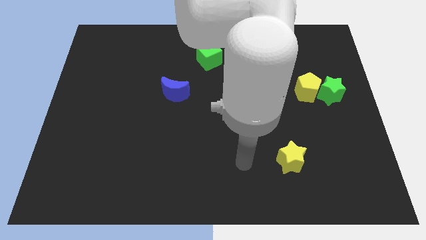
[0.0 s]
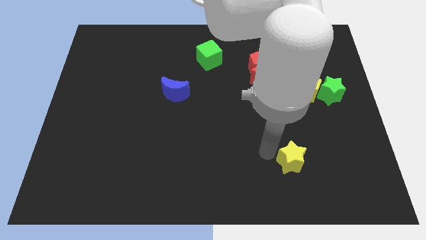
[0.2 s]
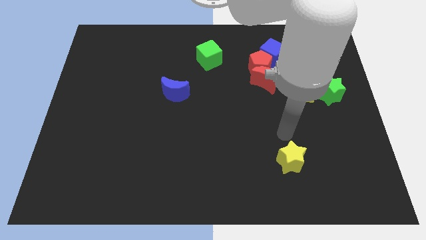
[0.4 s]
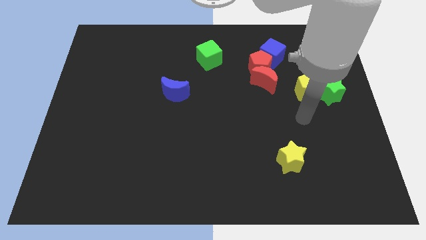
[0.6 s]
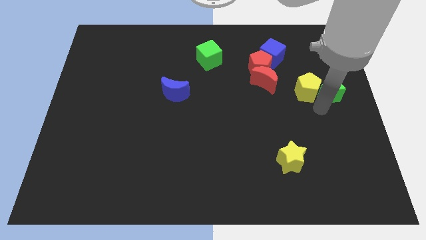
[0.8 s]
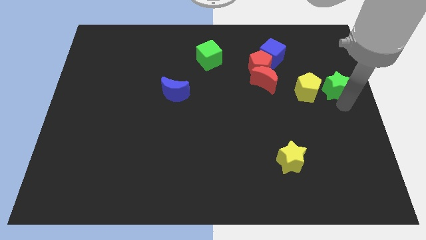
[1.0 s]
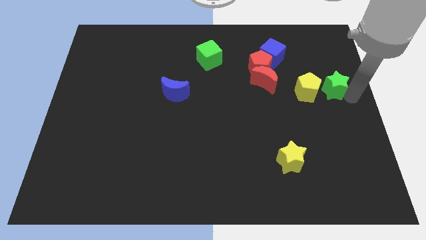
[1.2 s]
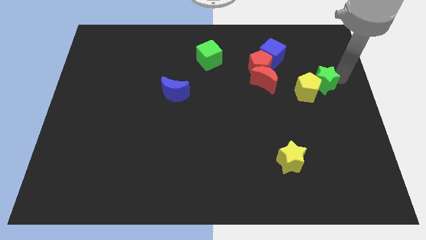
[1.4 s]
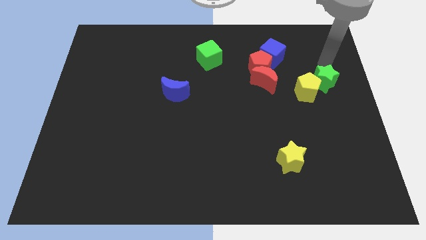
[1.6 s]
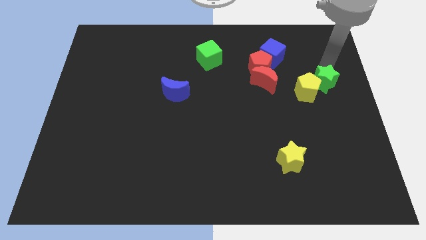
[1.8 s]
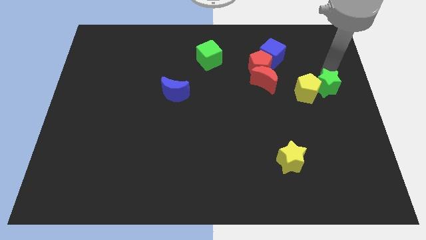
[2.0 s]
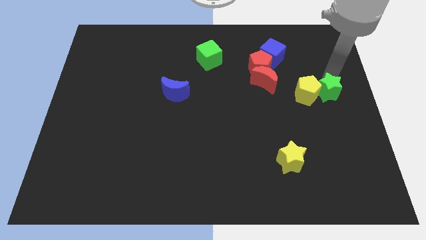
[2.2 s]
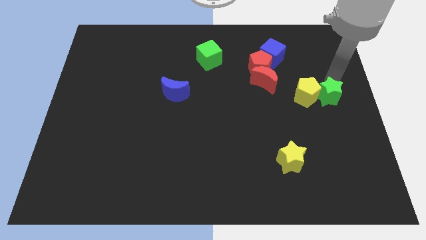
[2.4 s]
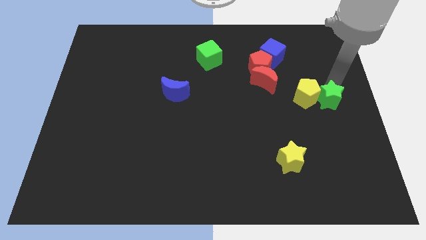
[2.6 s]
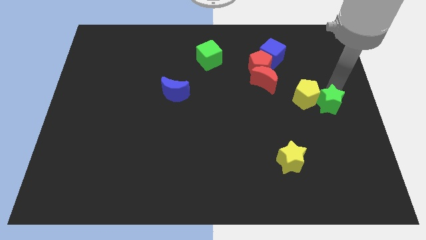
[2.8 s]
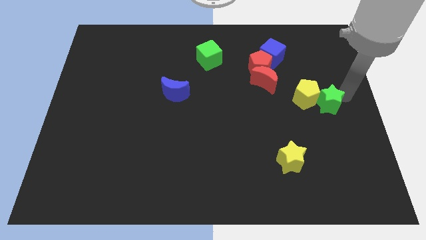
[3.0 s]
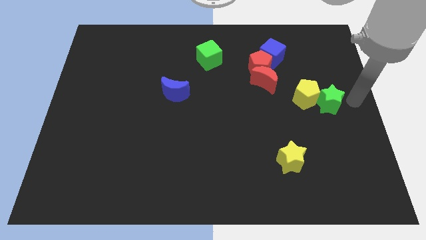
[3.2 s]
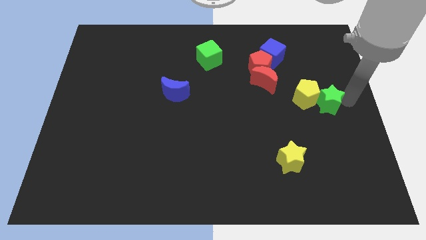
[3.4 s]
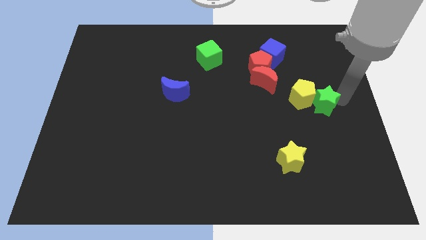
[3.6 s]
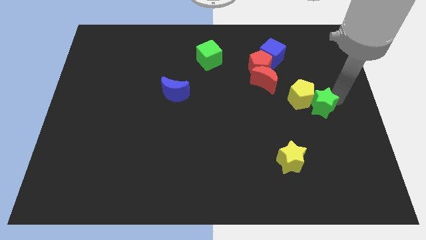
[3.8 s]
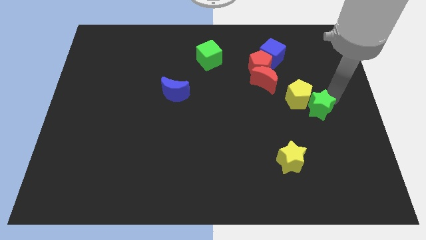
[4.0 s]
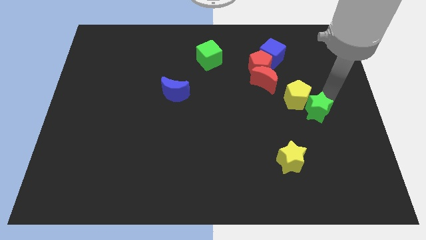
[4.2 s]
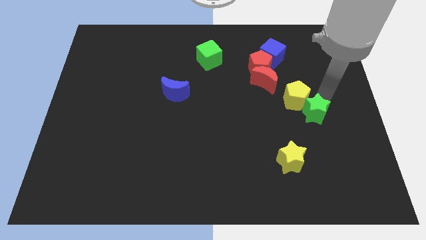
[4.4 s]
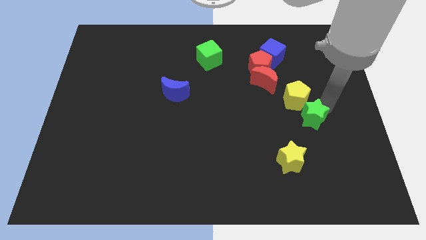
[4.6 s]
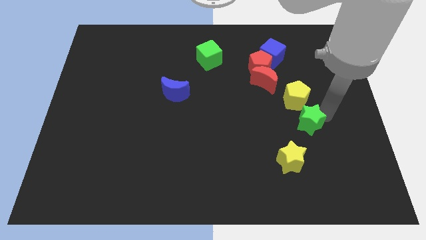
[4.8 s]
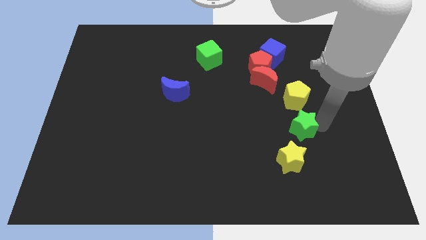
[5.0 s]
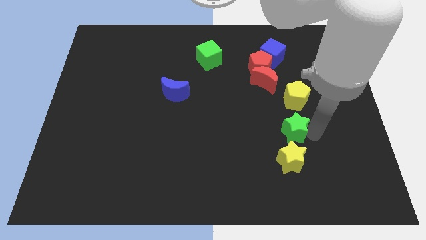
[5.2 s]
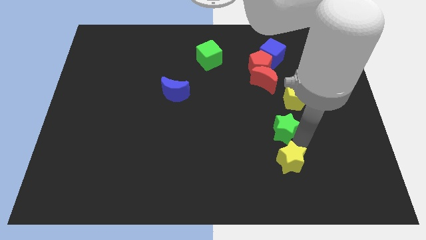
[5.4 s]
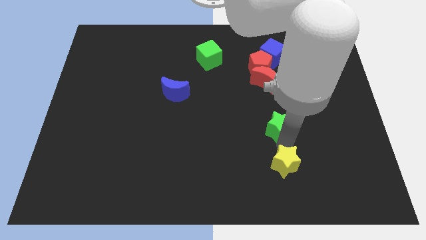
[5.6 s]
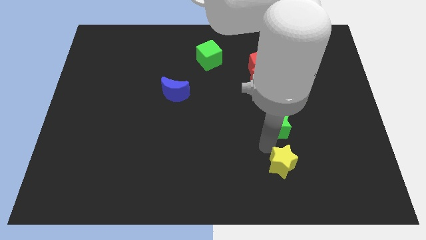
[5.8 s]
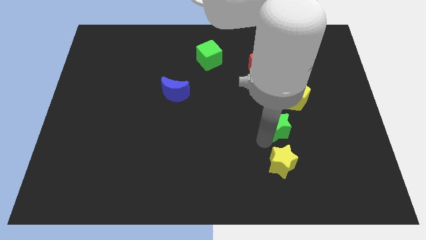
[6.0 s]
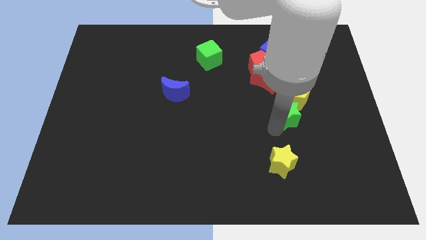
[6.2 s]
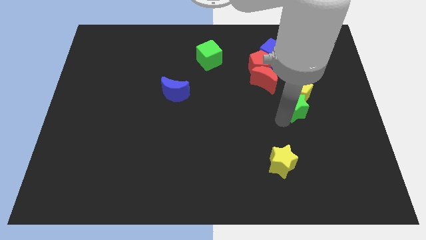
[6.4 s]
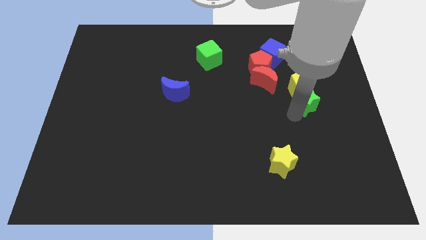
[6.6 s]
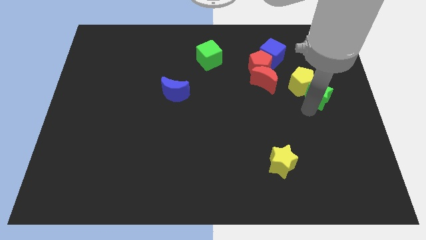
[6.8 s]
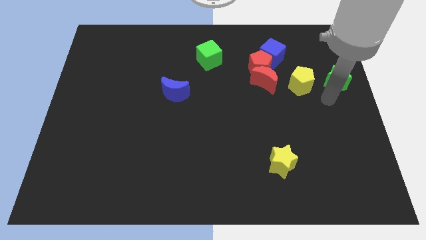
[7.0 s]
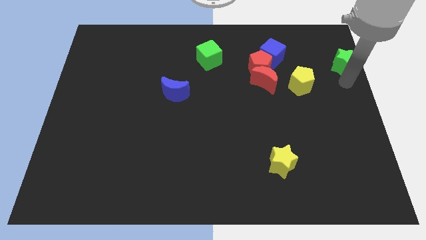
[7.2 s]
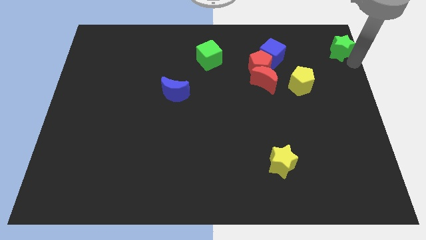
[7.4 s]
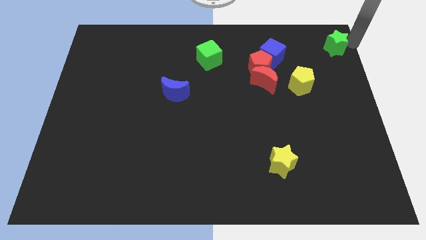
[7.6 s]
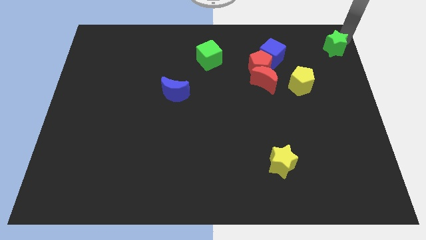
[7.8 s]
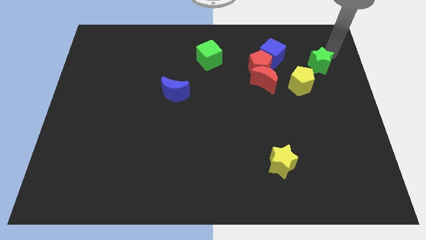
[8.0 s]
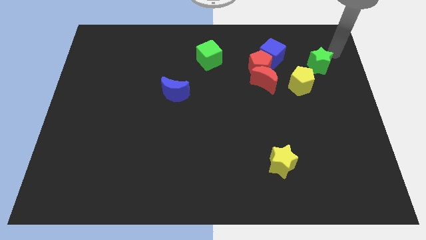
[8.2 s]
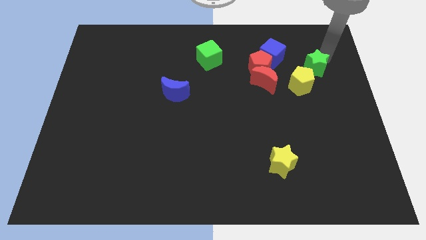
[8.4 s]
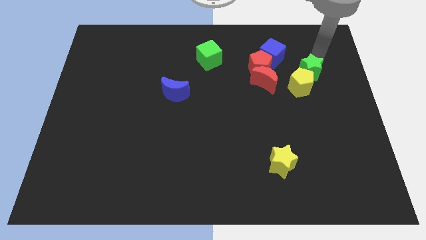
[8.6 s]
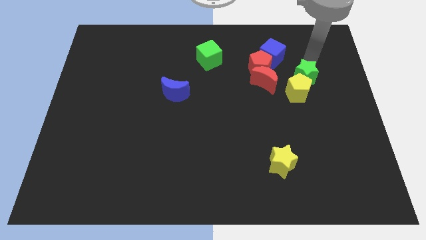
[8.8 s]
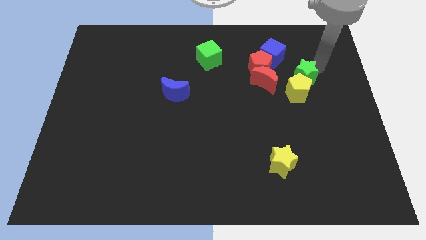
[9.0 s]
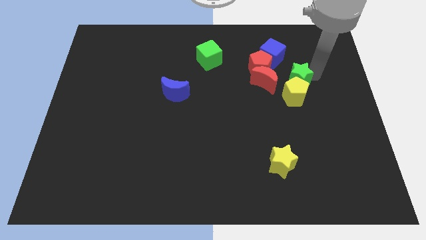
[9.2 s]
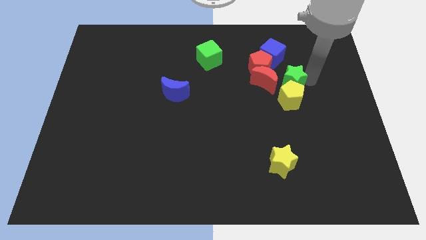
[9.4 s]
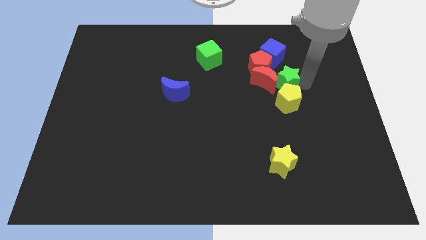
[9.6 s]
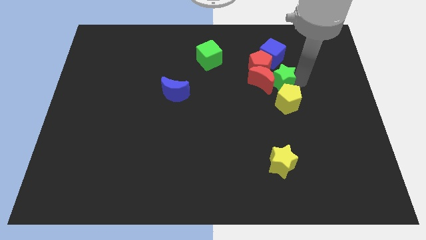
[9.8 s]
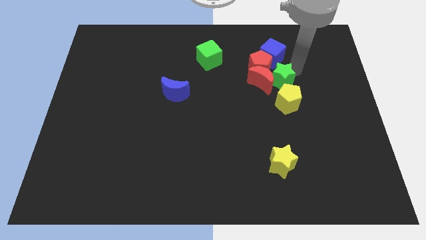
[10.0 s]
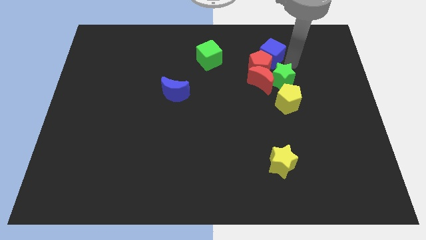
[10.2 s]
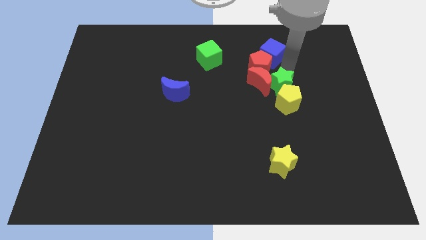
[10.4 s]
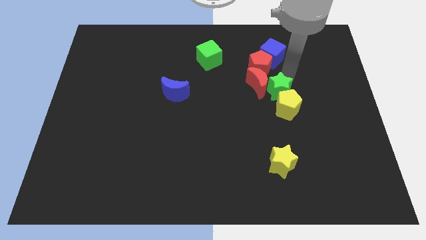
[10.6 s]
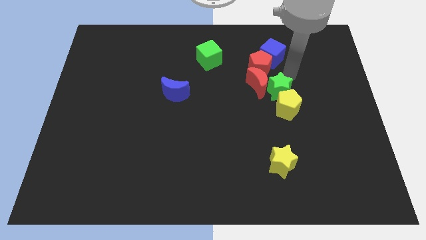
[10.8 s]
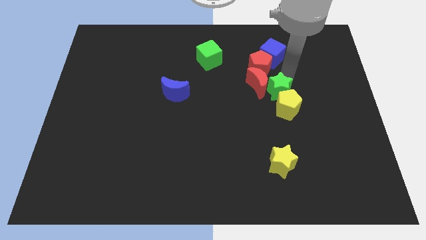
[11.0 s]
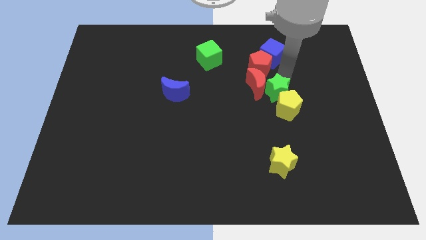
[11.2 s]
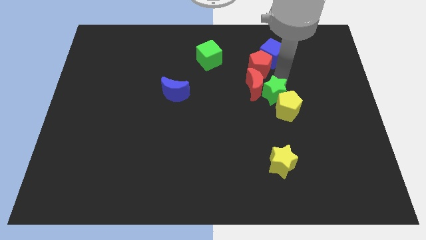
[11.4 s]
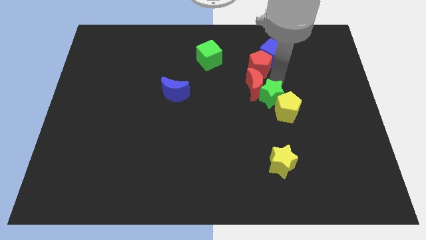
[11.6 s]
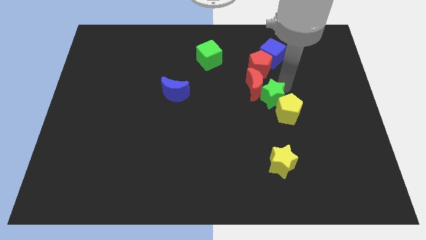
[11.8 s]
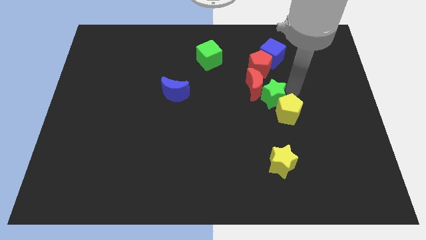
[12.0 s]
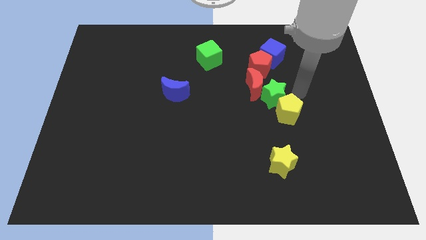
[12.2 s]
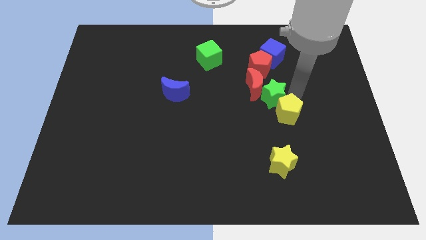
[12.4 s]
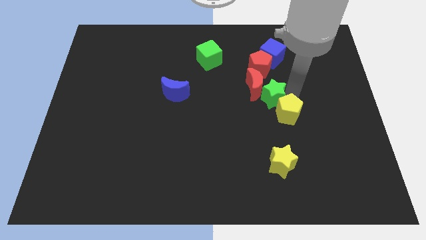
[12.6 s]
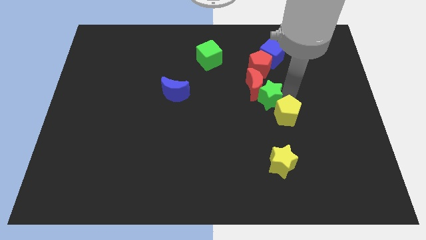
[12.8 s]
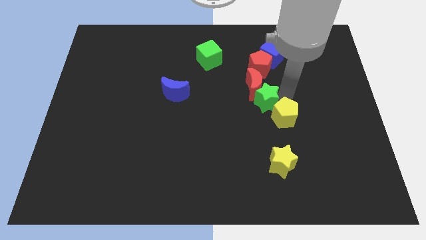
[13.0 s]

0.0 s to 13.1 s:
move the green star to the middle

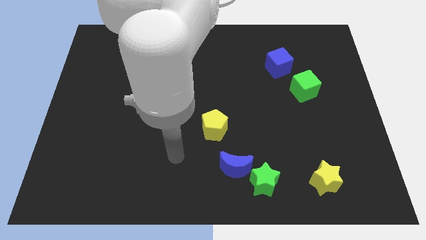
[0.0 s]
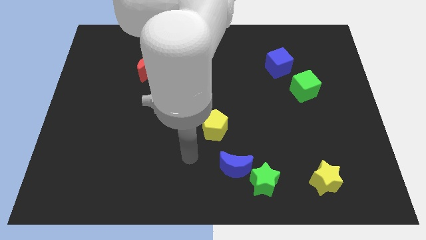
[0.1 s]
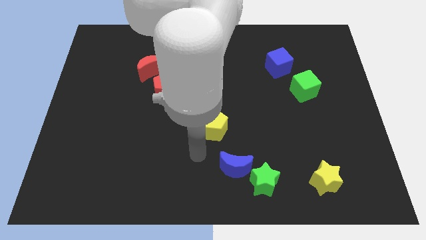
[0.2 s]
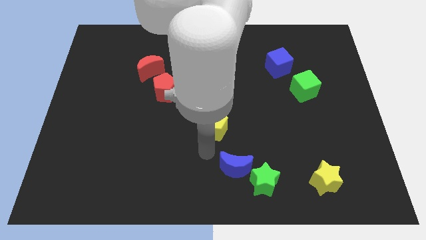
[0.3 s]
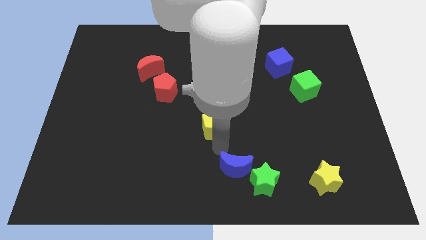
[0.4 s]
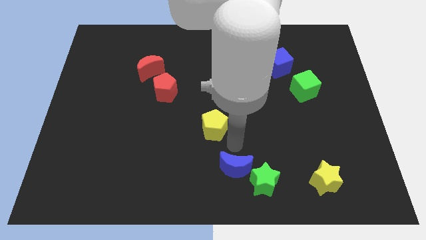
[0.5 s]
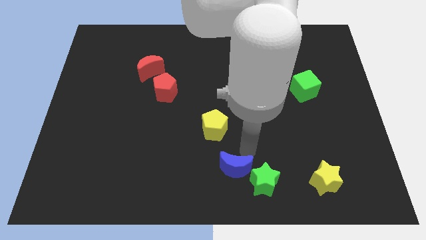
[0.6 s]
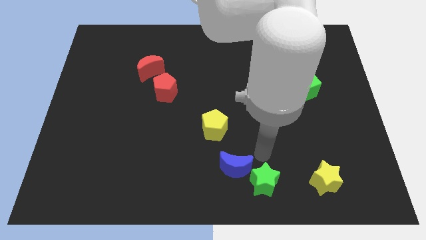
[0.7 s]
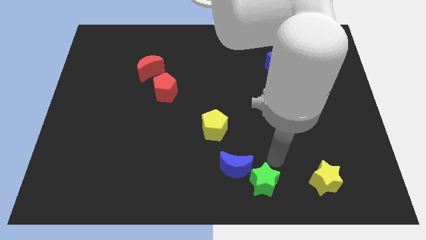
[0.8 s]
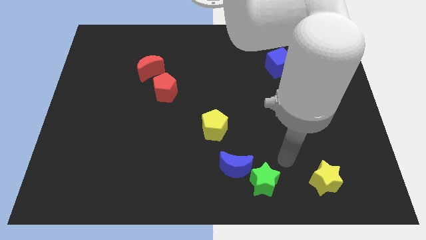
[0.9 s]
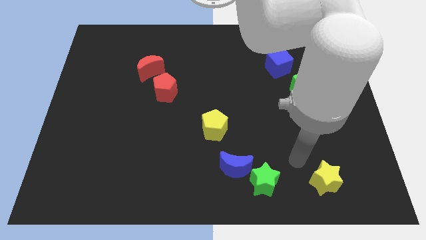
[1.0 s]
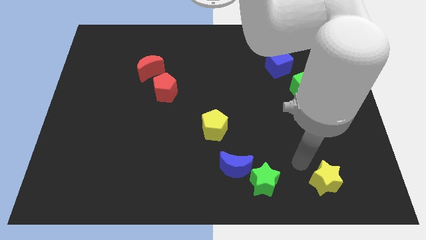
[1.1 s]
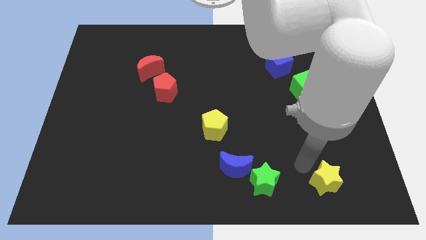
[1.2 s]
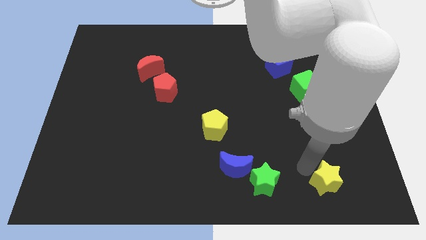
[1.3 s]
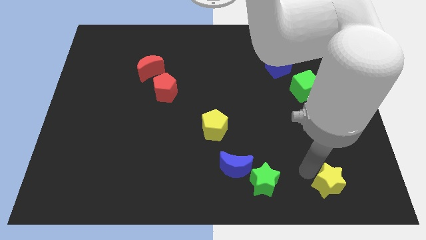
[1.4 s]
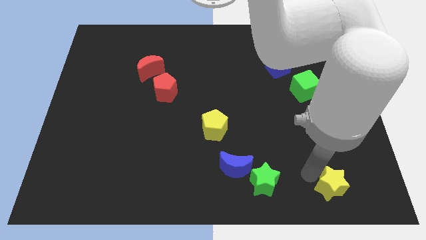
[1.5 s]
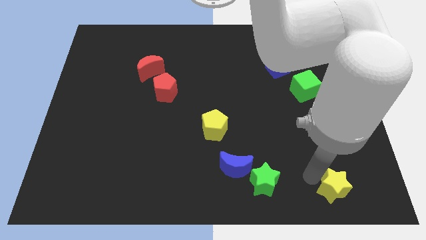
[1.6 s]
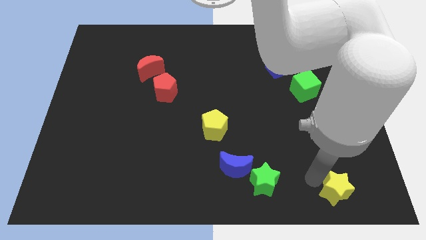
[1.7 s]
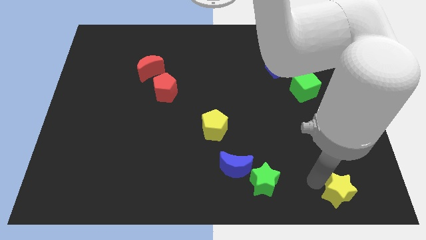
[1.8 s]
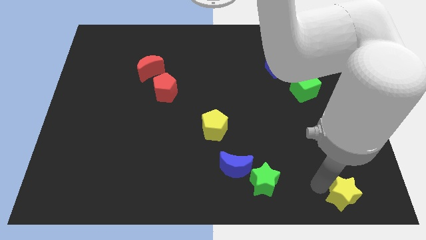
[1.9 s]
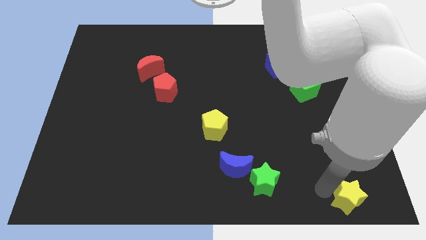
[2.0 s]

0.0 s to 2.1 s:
push the yellow star to the bottom right of the board
